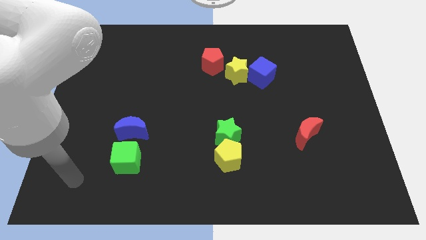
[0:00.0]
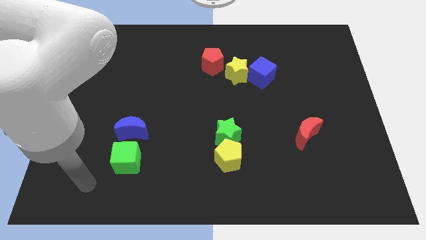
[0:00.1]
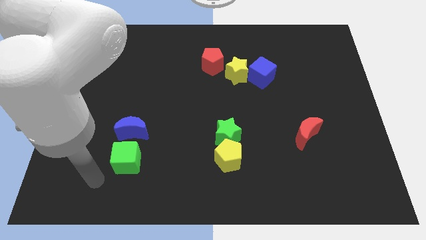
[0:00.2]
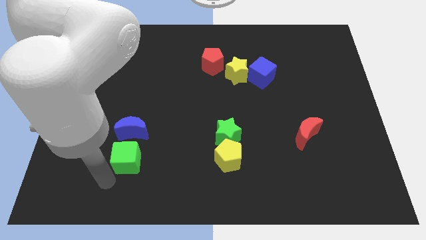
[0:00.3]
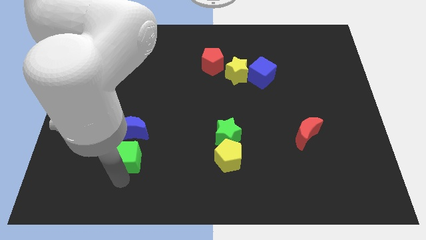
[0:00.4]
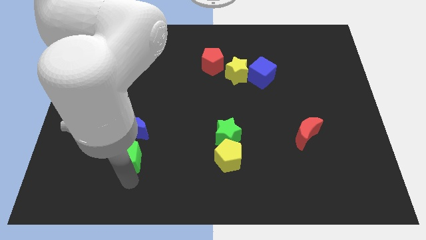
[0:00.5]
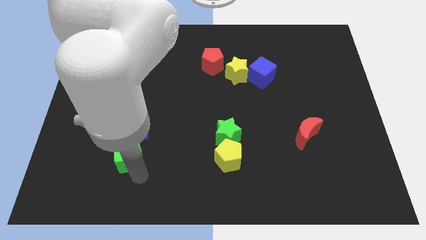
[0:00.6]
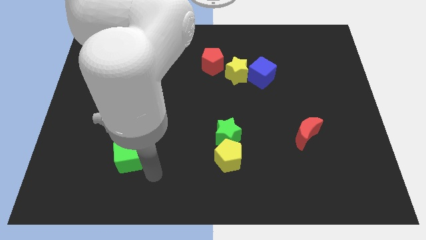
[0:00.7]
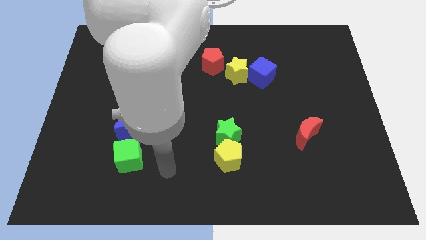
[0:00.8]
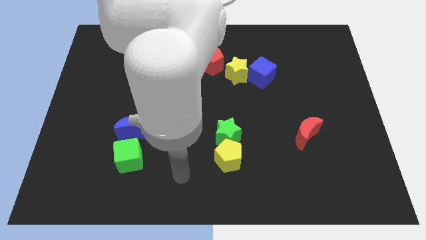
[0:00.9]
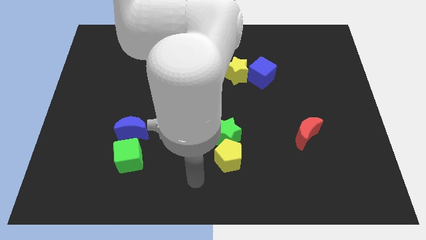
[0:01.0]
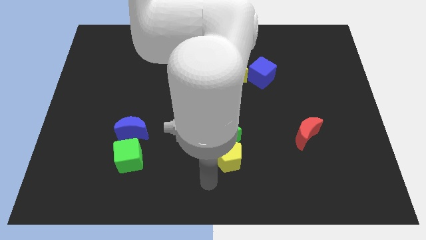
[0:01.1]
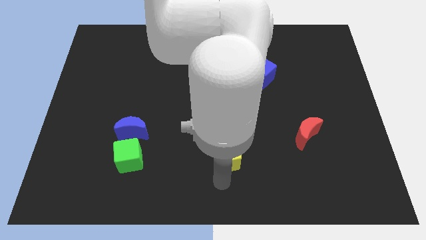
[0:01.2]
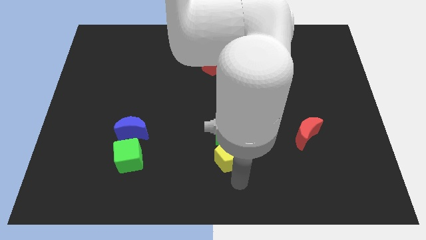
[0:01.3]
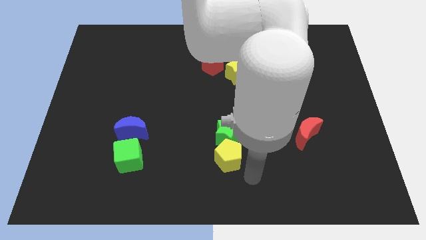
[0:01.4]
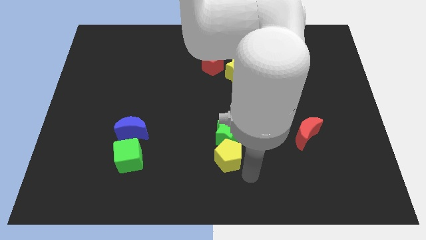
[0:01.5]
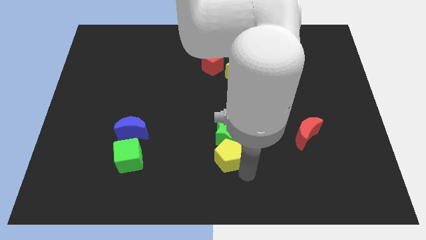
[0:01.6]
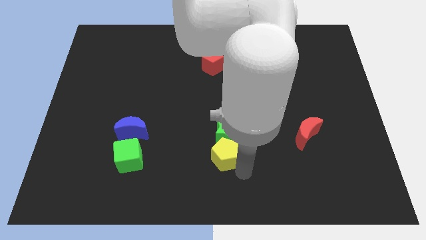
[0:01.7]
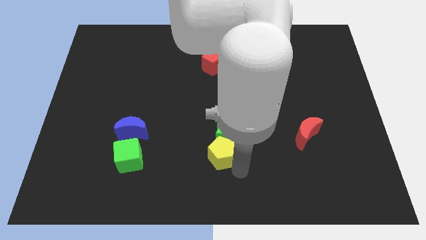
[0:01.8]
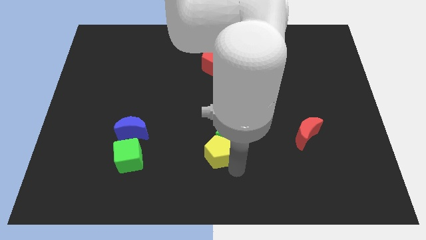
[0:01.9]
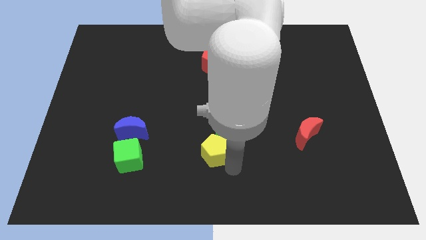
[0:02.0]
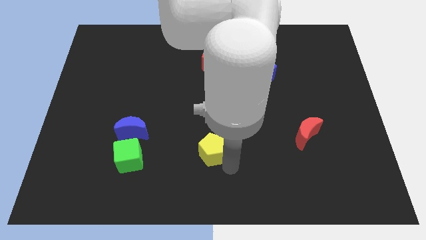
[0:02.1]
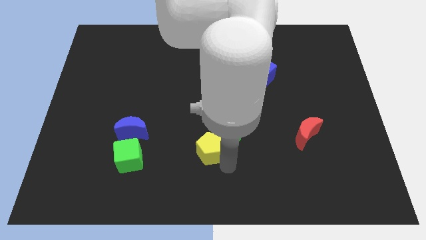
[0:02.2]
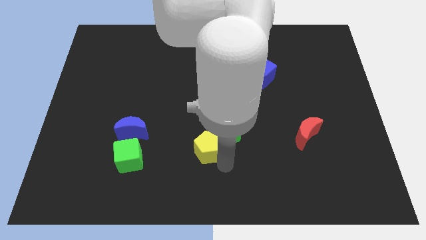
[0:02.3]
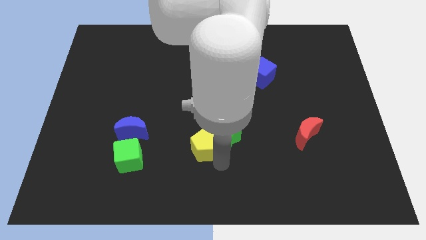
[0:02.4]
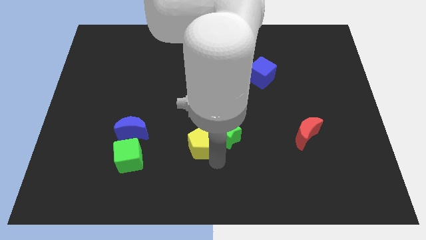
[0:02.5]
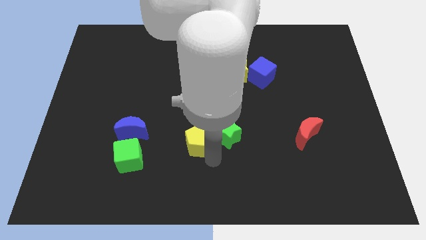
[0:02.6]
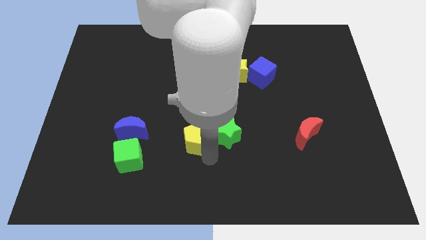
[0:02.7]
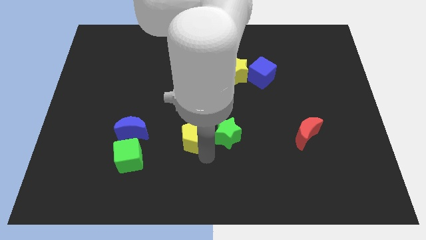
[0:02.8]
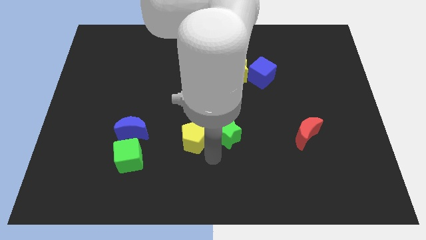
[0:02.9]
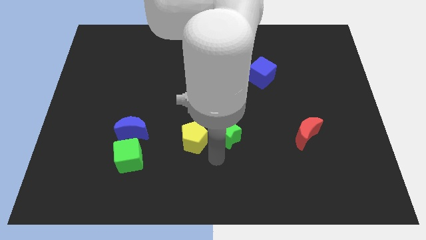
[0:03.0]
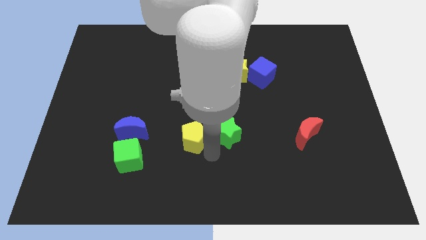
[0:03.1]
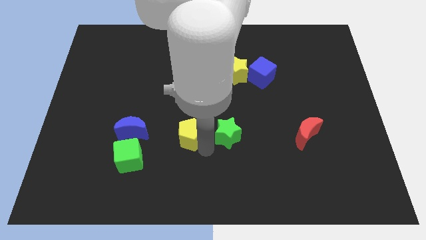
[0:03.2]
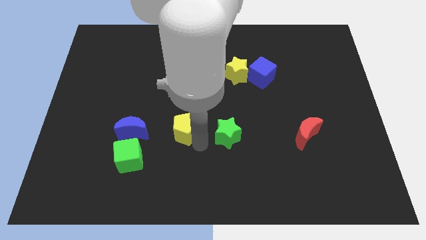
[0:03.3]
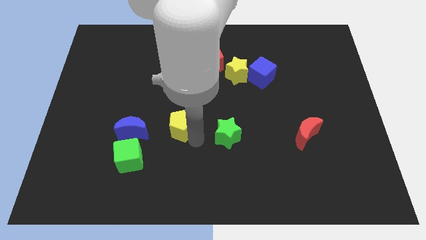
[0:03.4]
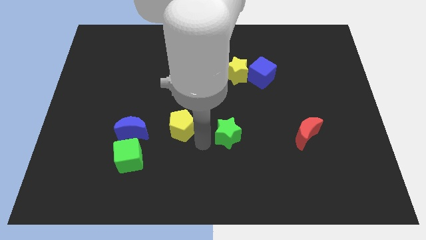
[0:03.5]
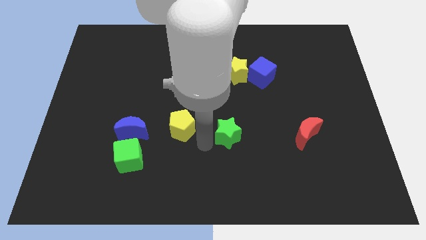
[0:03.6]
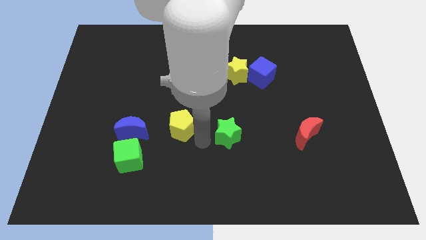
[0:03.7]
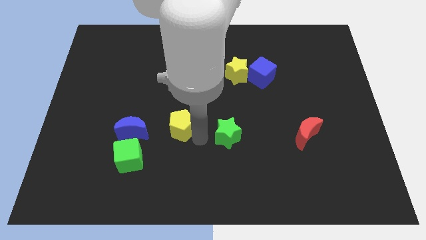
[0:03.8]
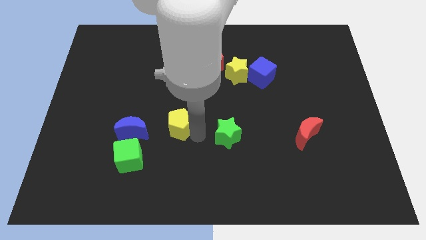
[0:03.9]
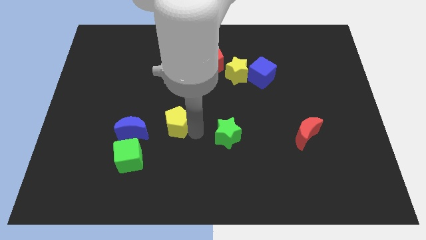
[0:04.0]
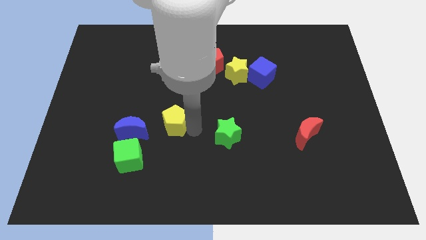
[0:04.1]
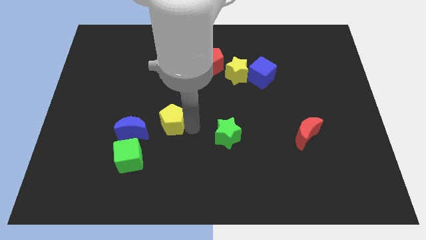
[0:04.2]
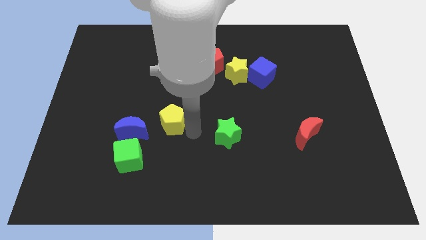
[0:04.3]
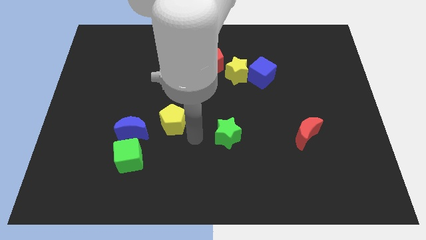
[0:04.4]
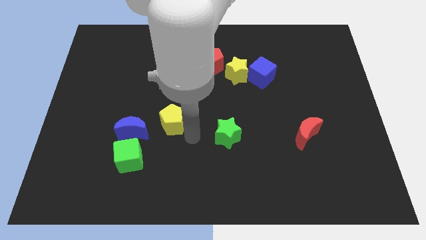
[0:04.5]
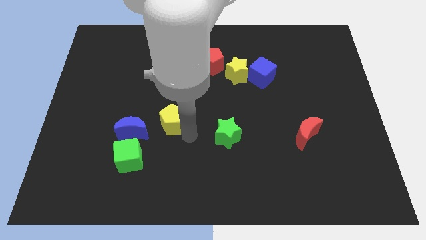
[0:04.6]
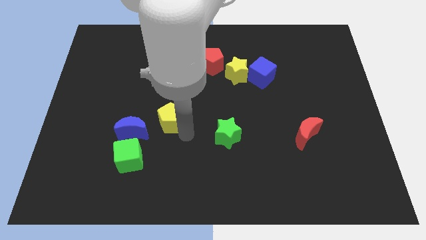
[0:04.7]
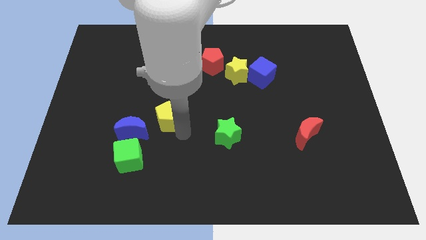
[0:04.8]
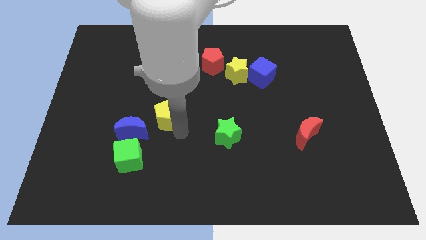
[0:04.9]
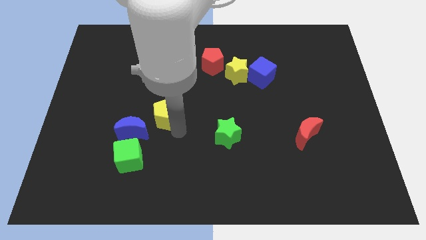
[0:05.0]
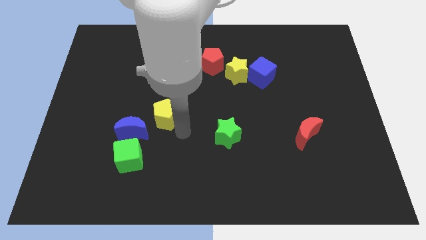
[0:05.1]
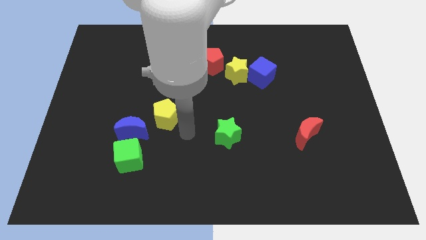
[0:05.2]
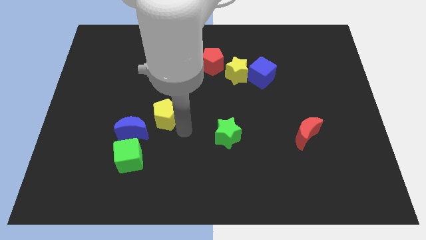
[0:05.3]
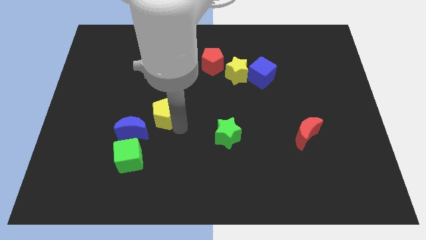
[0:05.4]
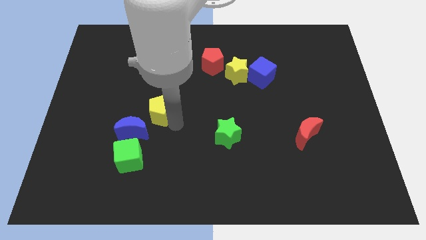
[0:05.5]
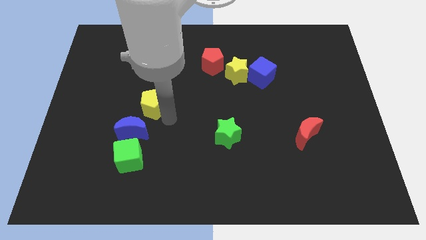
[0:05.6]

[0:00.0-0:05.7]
move the yellow pentagon to the top side of the blue moon

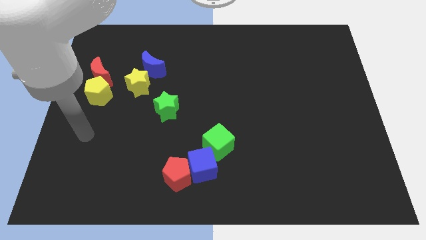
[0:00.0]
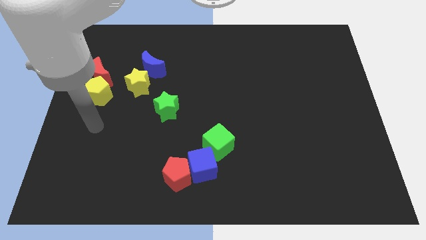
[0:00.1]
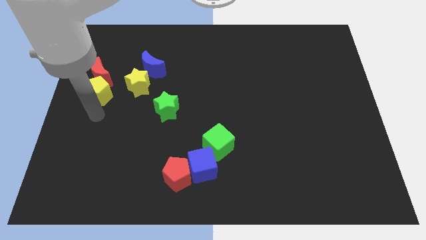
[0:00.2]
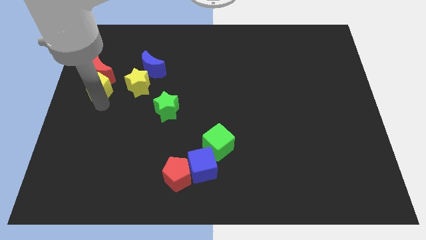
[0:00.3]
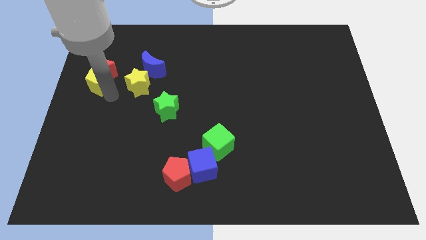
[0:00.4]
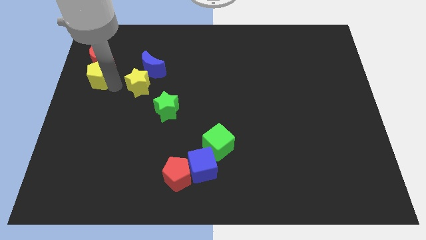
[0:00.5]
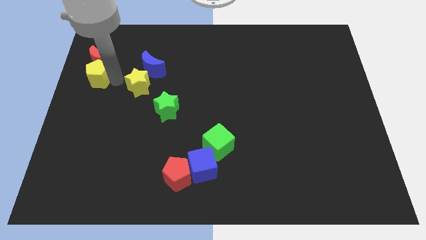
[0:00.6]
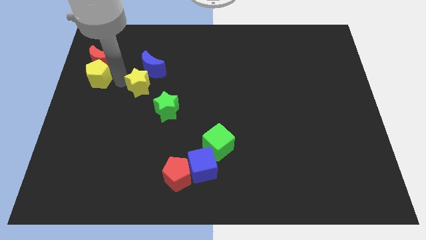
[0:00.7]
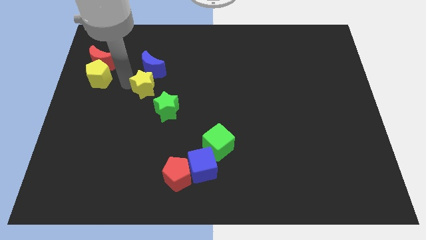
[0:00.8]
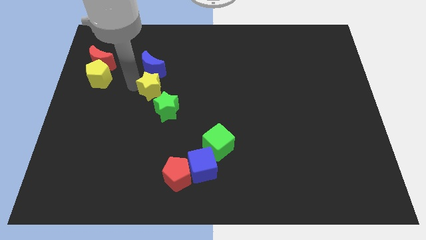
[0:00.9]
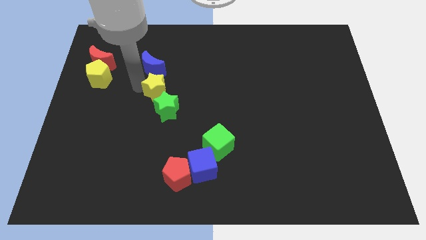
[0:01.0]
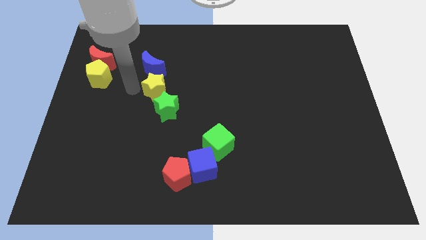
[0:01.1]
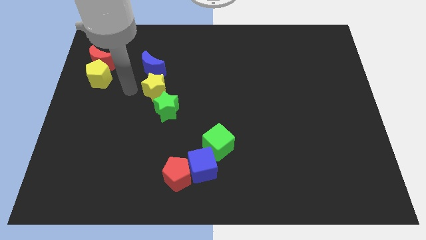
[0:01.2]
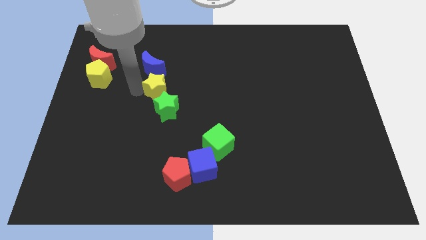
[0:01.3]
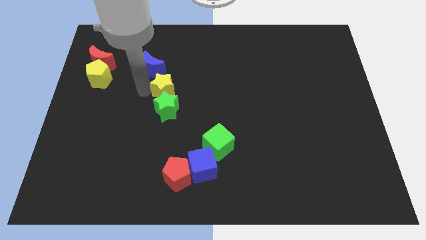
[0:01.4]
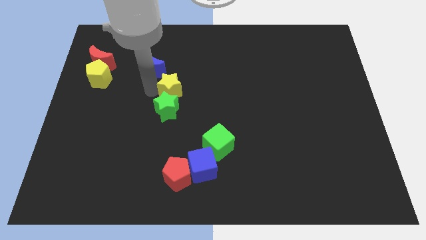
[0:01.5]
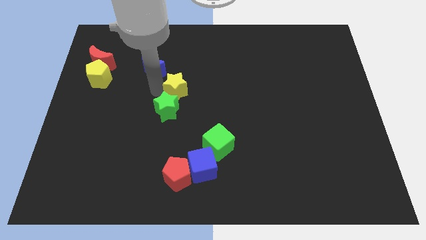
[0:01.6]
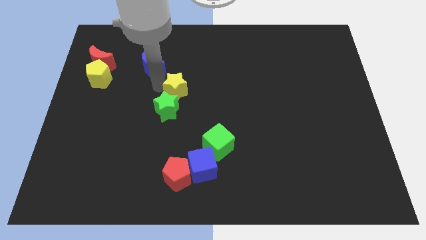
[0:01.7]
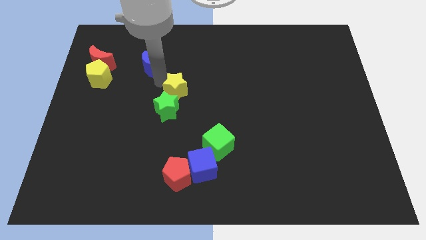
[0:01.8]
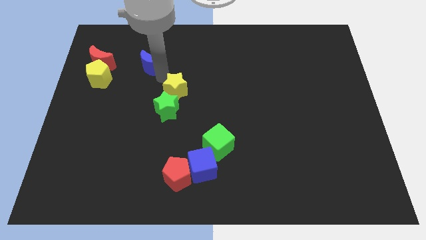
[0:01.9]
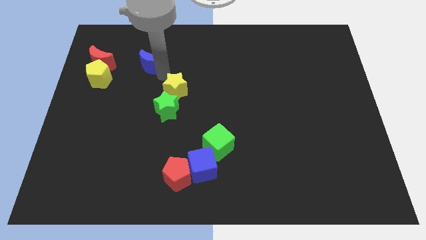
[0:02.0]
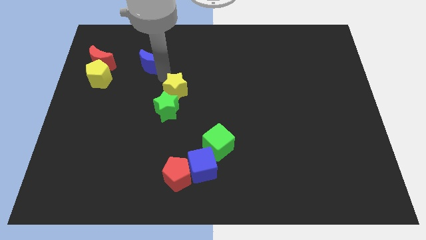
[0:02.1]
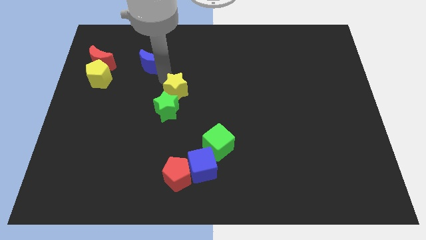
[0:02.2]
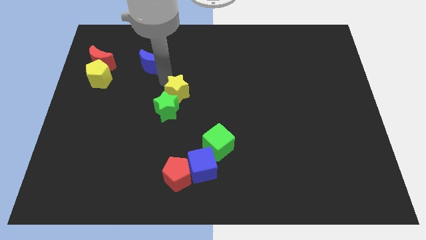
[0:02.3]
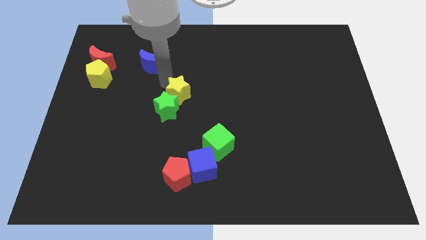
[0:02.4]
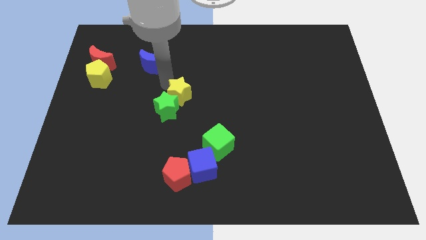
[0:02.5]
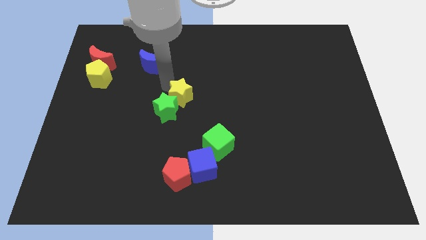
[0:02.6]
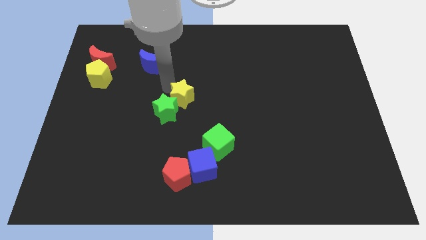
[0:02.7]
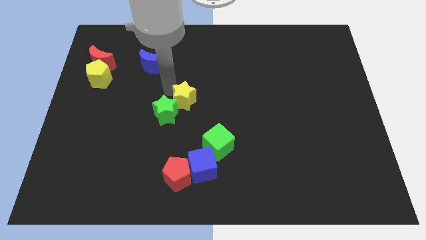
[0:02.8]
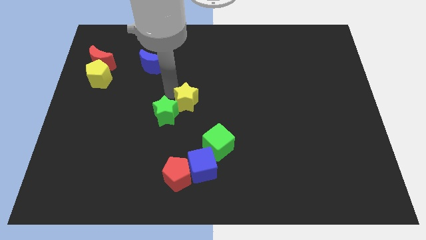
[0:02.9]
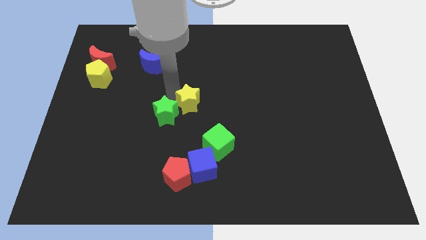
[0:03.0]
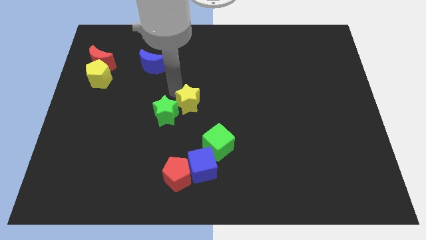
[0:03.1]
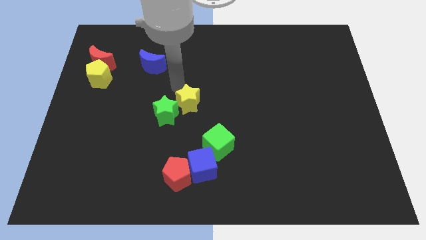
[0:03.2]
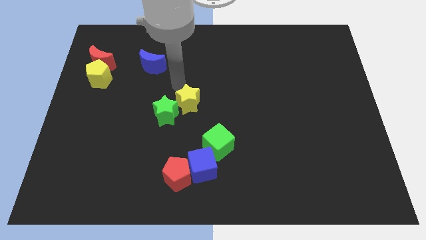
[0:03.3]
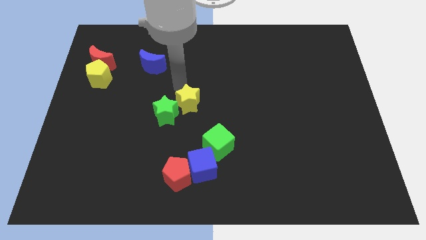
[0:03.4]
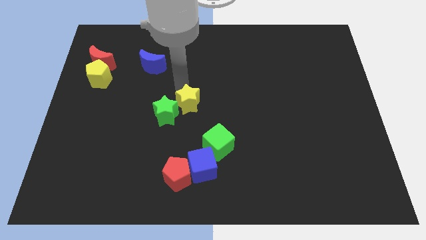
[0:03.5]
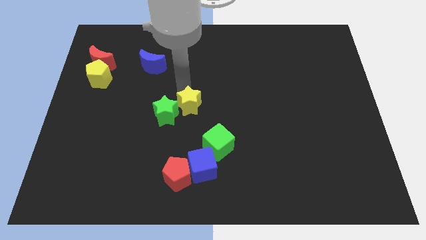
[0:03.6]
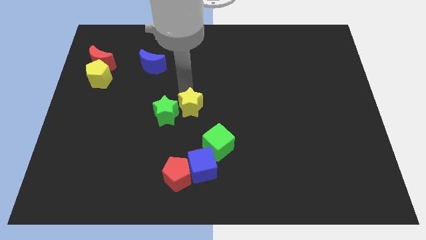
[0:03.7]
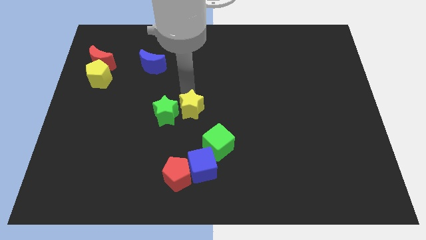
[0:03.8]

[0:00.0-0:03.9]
move the yellow star to the top of the blue cube
